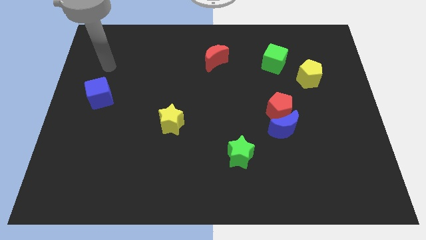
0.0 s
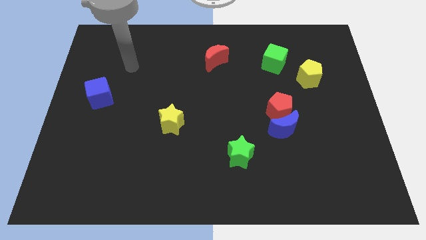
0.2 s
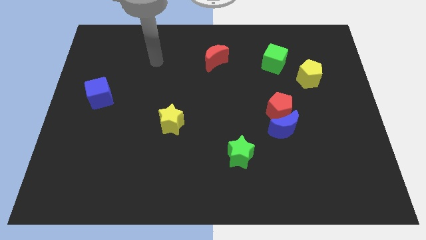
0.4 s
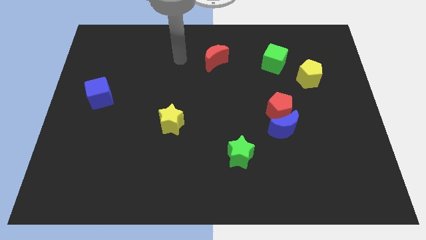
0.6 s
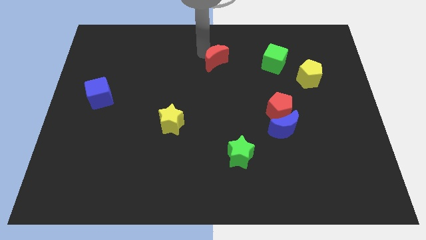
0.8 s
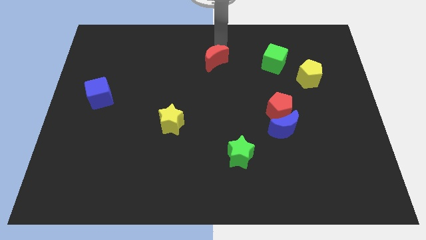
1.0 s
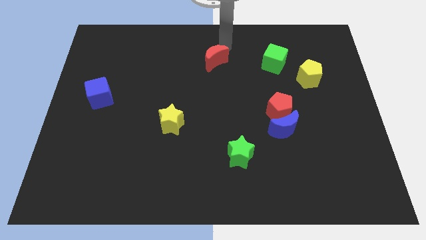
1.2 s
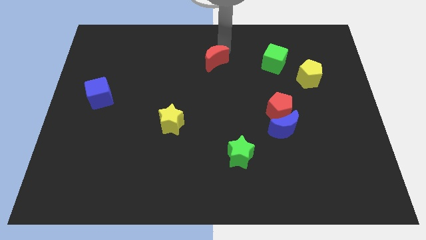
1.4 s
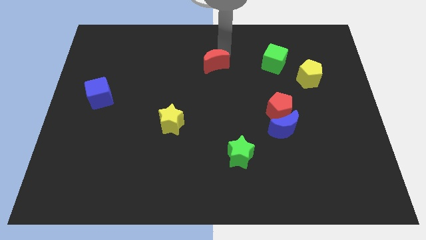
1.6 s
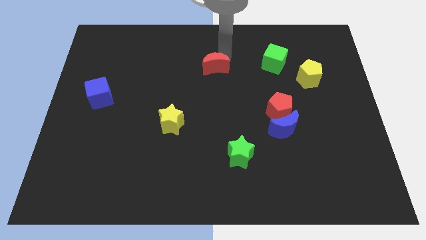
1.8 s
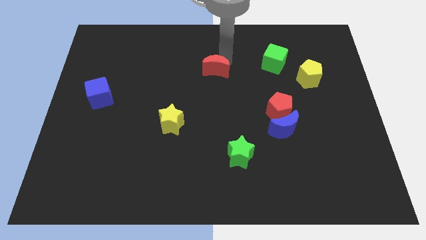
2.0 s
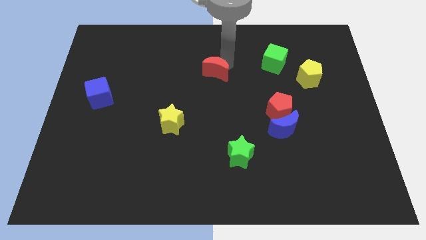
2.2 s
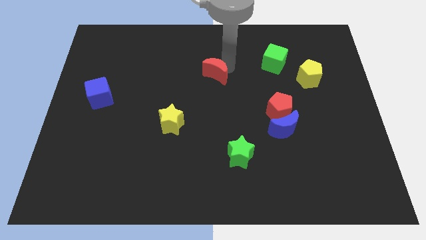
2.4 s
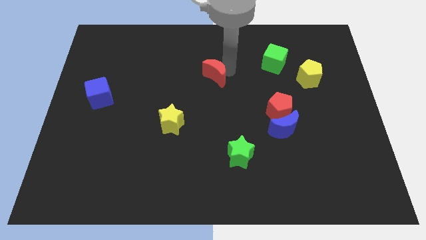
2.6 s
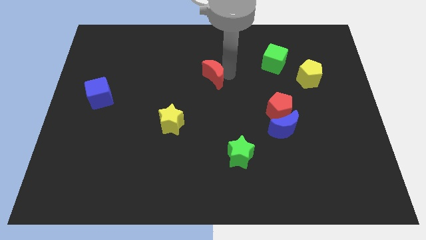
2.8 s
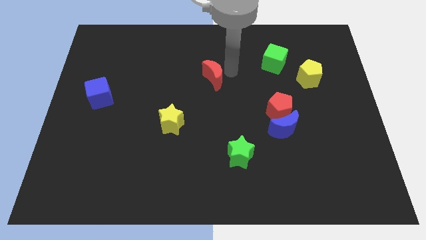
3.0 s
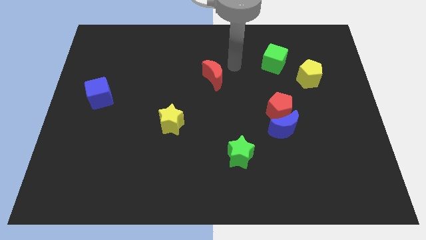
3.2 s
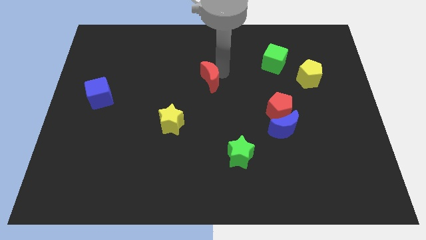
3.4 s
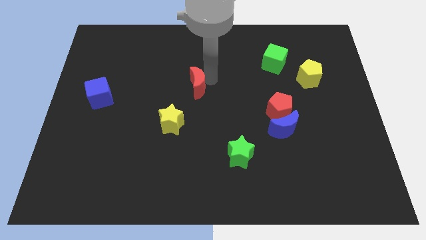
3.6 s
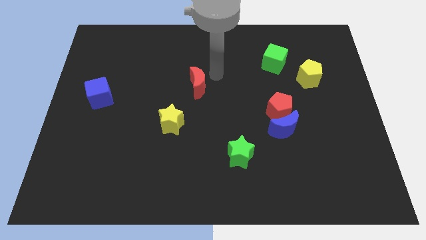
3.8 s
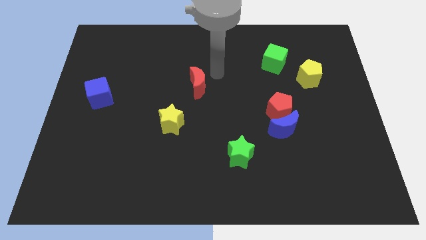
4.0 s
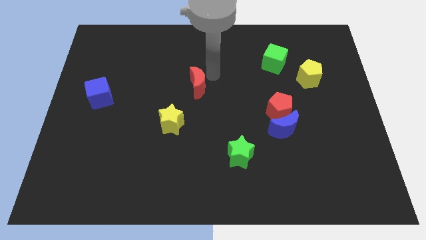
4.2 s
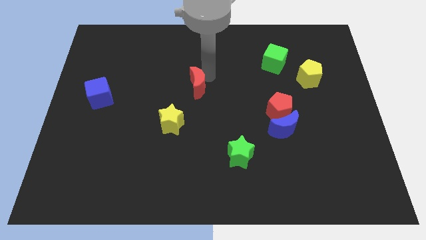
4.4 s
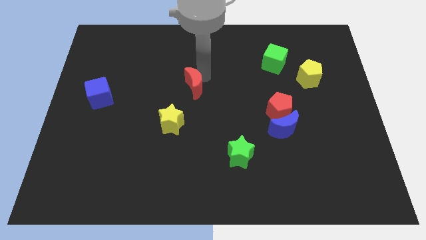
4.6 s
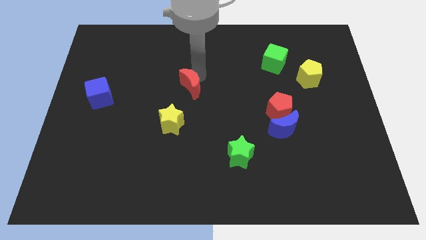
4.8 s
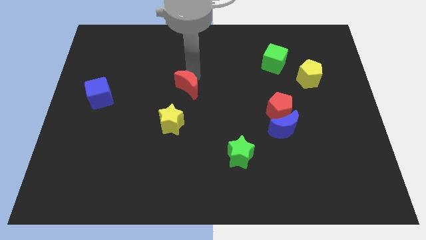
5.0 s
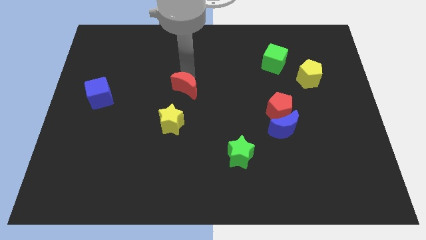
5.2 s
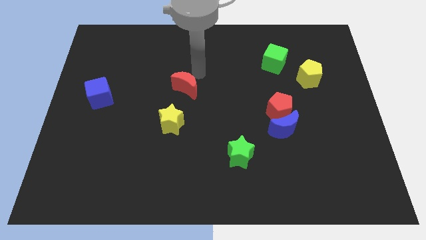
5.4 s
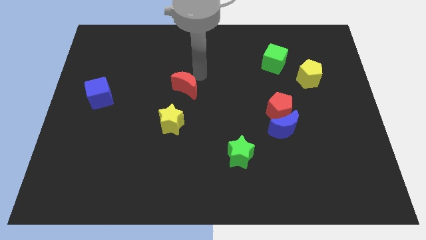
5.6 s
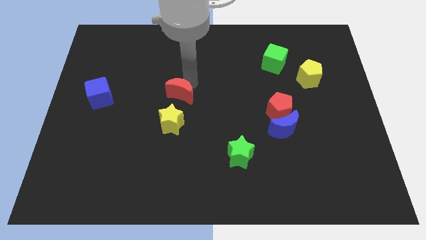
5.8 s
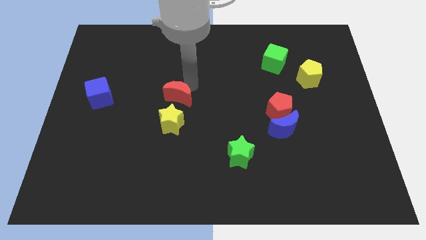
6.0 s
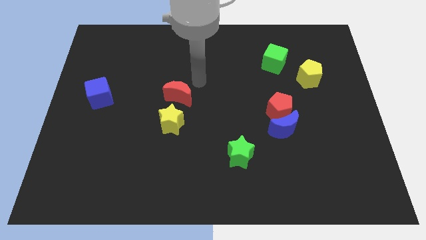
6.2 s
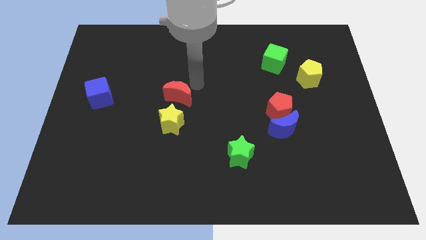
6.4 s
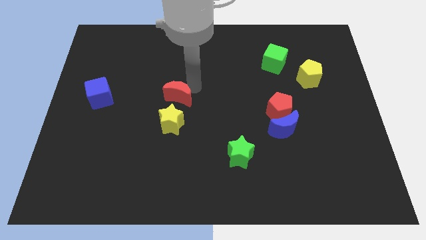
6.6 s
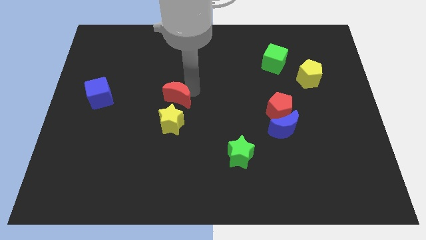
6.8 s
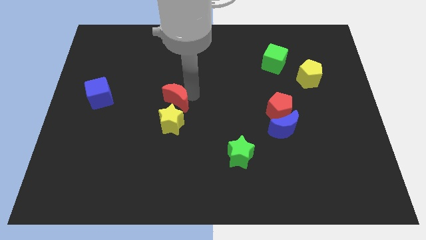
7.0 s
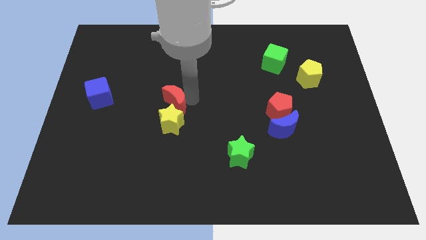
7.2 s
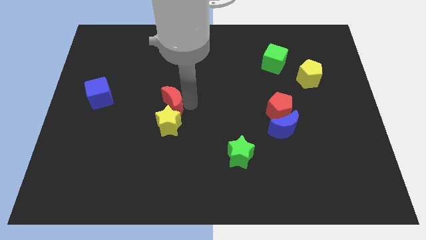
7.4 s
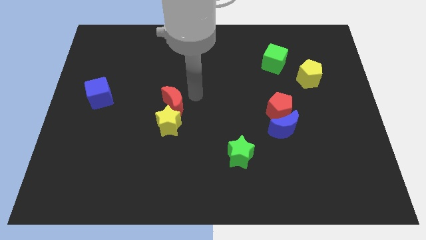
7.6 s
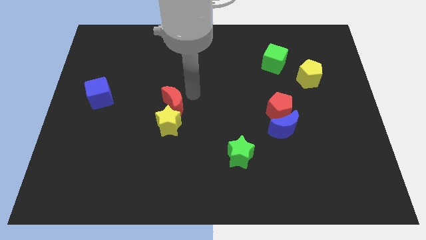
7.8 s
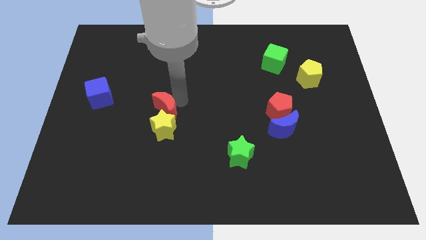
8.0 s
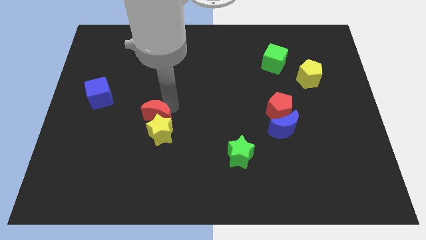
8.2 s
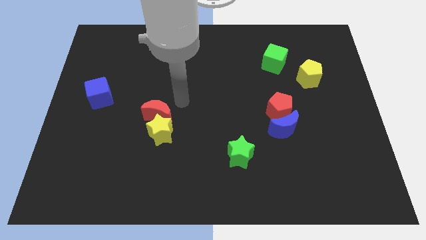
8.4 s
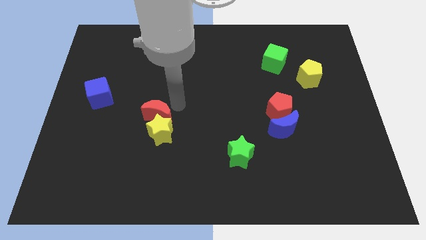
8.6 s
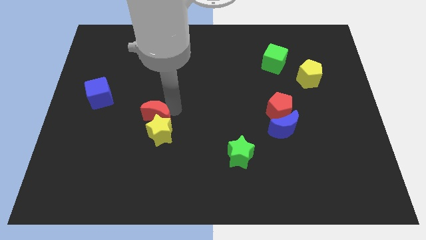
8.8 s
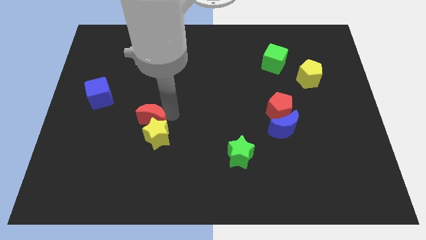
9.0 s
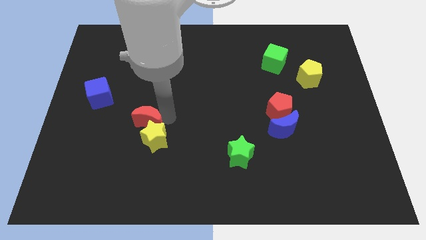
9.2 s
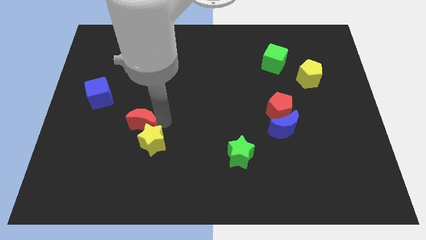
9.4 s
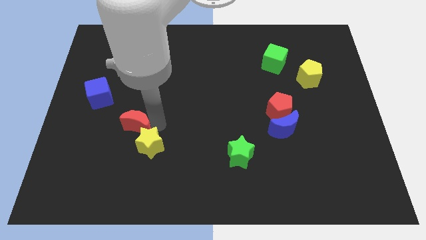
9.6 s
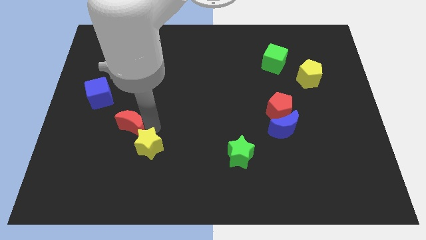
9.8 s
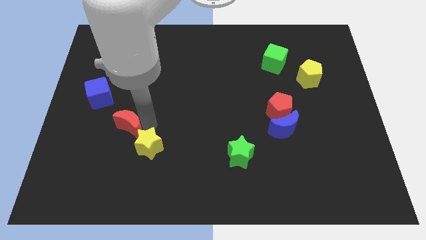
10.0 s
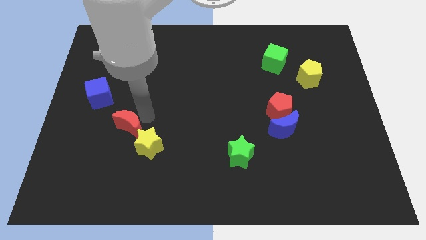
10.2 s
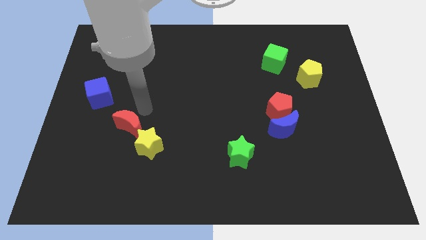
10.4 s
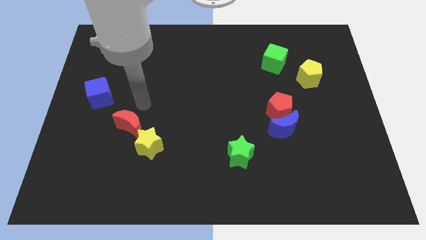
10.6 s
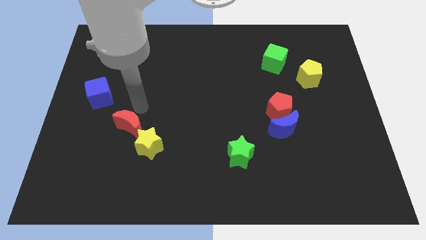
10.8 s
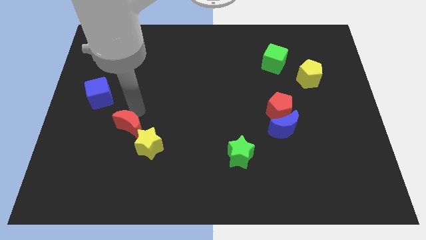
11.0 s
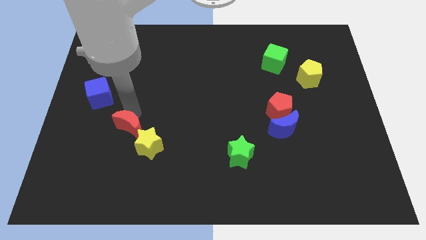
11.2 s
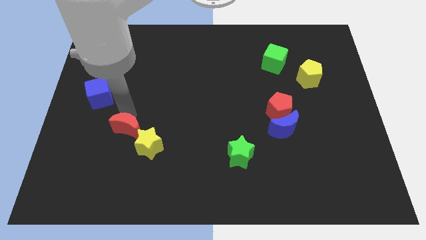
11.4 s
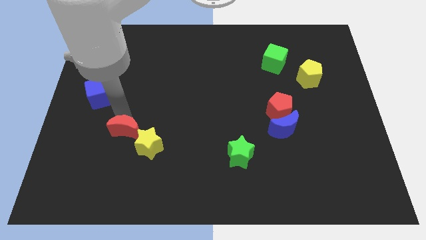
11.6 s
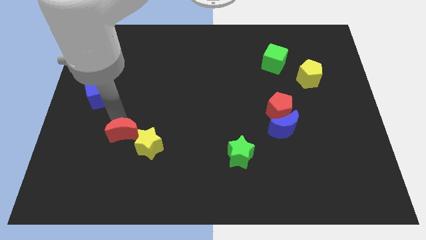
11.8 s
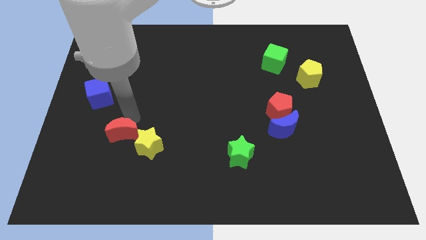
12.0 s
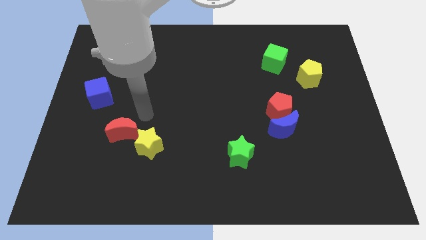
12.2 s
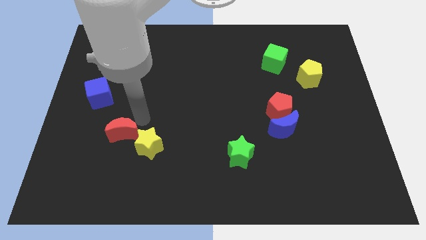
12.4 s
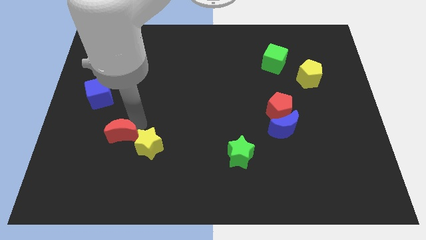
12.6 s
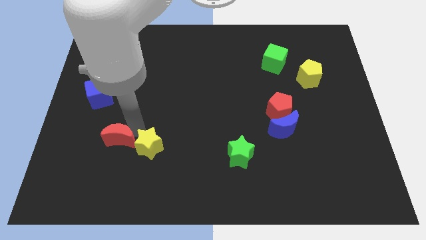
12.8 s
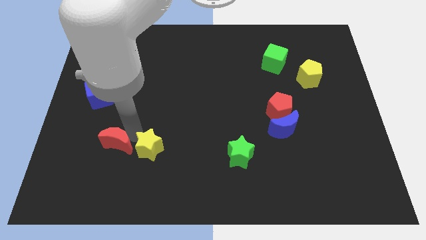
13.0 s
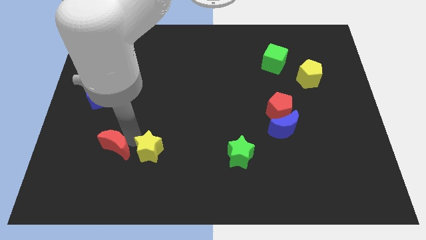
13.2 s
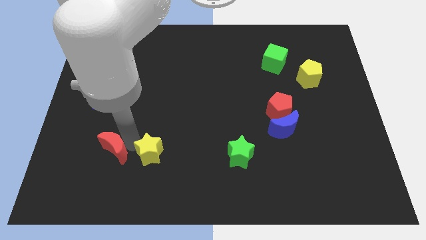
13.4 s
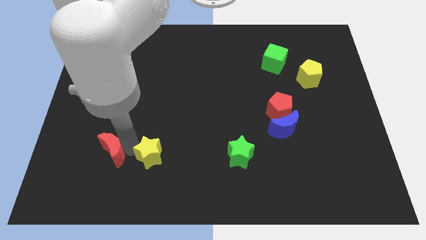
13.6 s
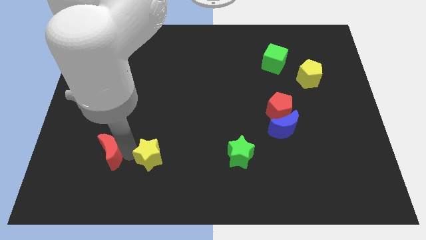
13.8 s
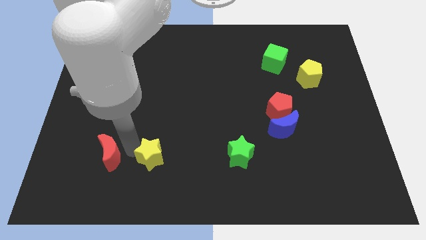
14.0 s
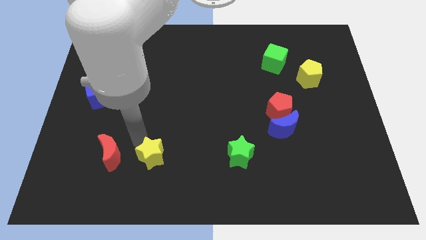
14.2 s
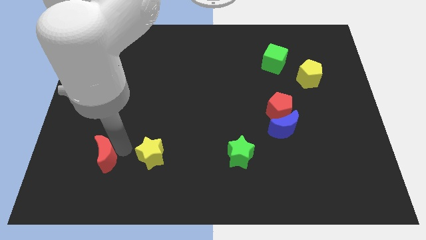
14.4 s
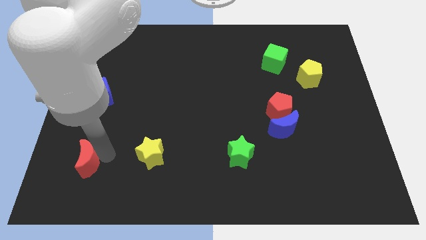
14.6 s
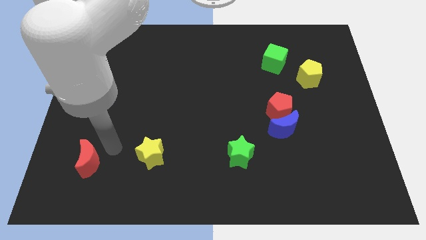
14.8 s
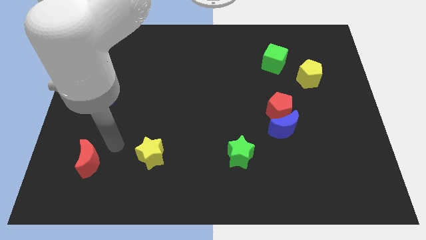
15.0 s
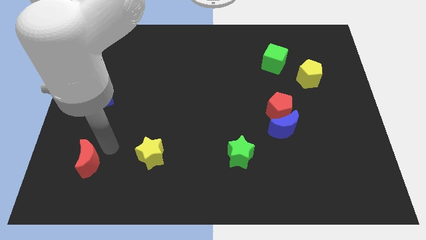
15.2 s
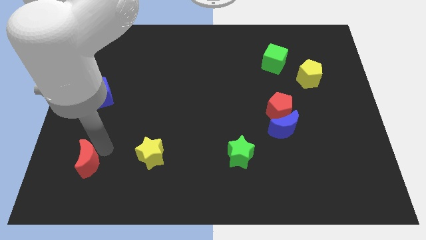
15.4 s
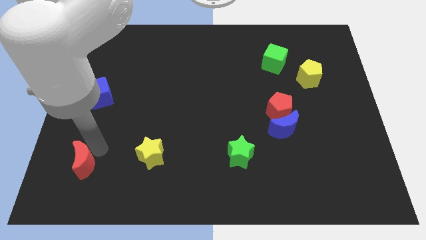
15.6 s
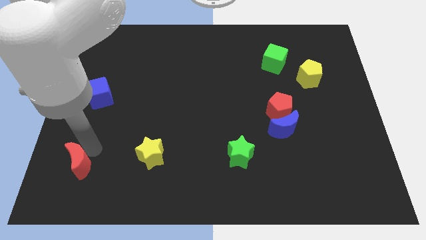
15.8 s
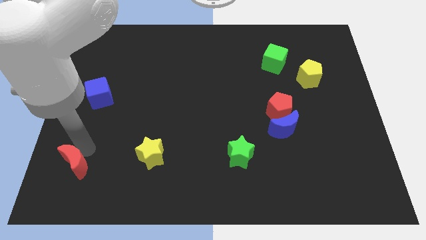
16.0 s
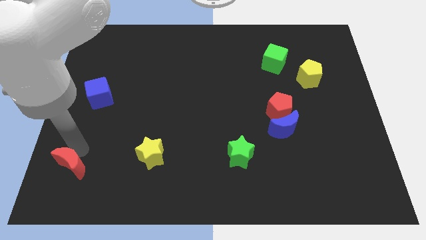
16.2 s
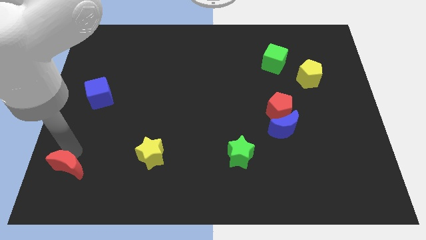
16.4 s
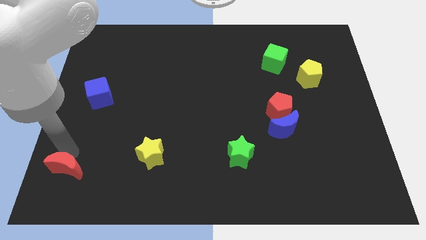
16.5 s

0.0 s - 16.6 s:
move the red moon to the bottom left
